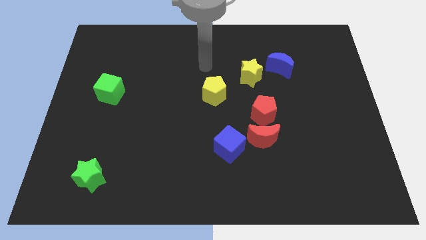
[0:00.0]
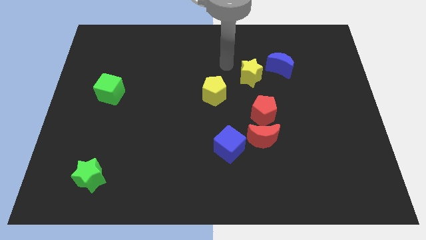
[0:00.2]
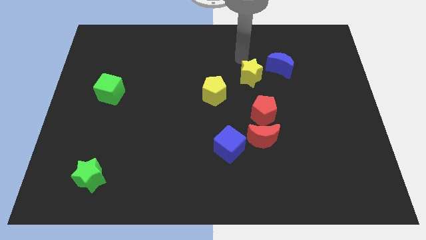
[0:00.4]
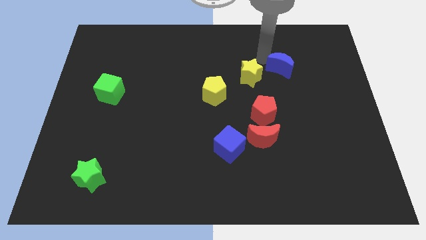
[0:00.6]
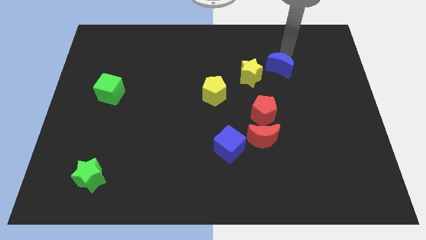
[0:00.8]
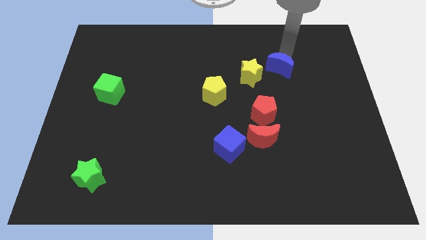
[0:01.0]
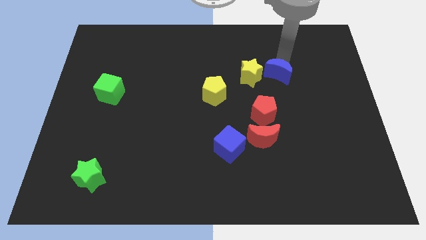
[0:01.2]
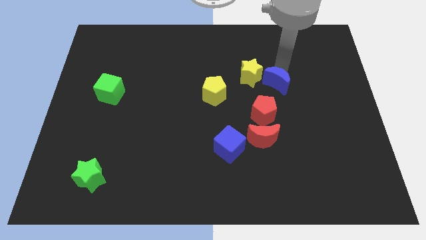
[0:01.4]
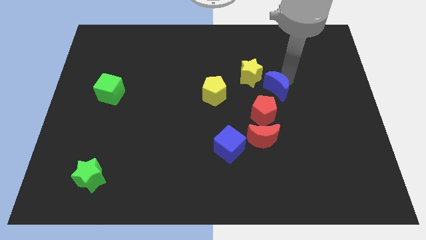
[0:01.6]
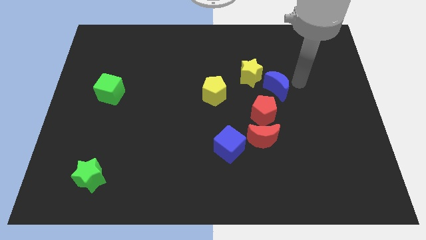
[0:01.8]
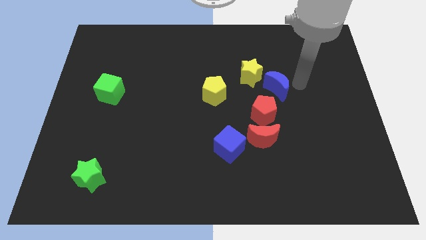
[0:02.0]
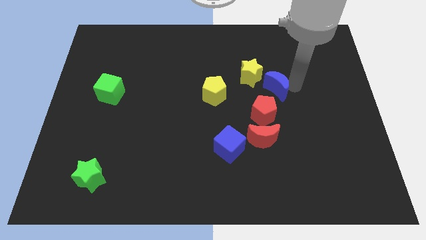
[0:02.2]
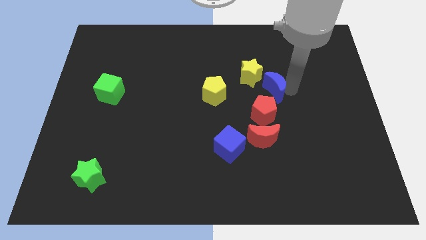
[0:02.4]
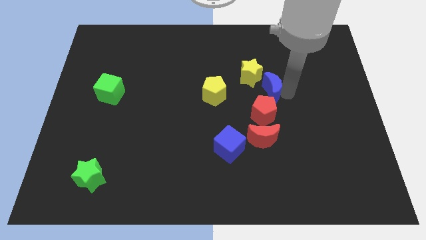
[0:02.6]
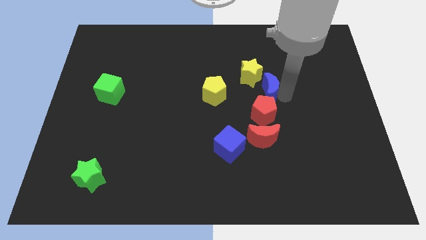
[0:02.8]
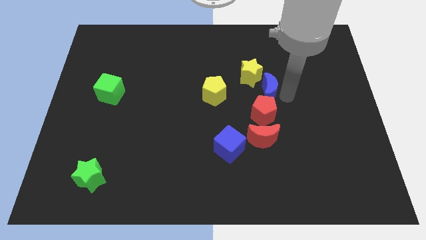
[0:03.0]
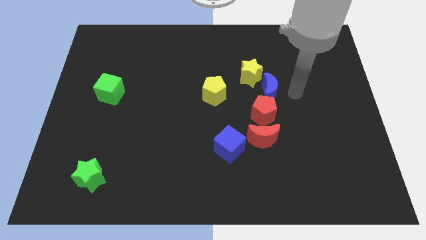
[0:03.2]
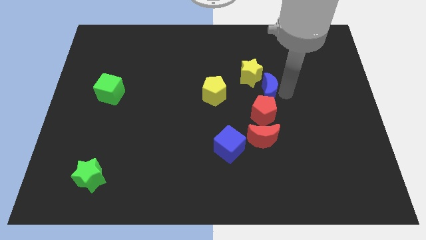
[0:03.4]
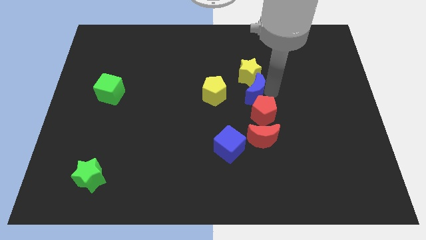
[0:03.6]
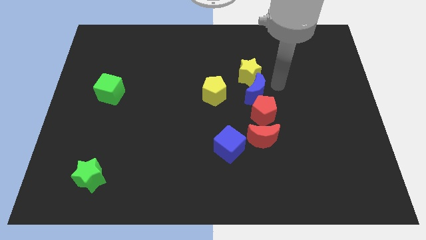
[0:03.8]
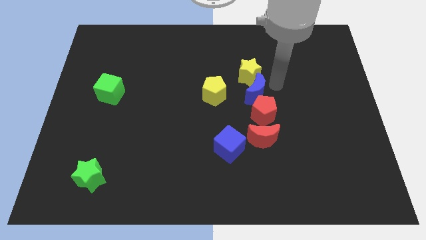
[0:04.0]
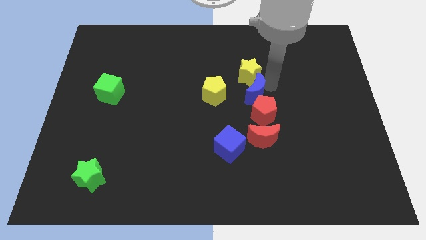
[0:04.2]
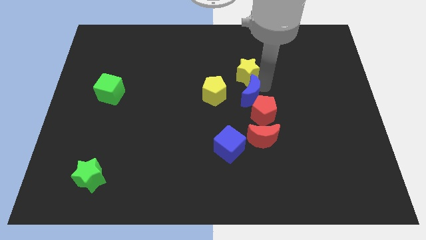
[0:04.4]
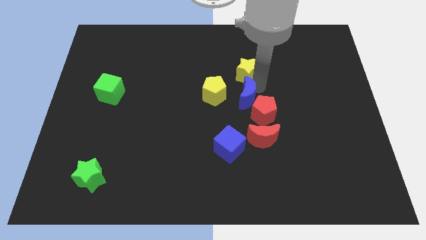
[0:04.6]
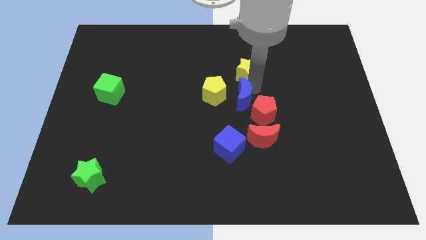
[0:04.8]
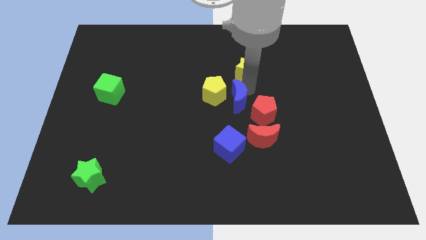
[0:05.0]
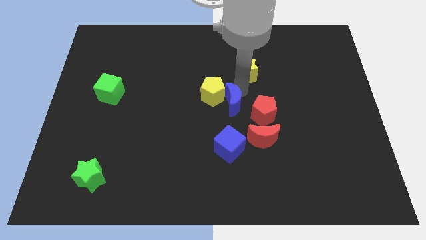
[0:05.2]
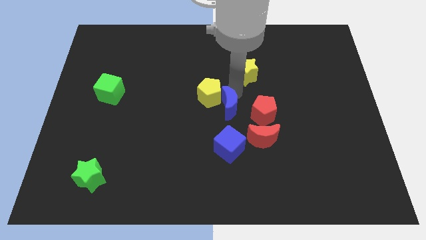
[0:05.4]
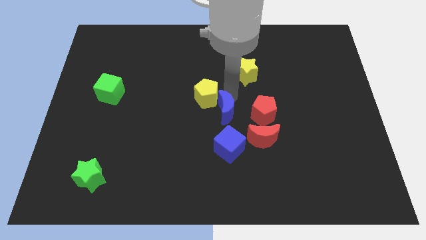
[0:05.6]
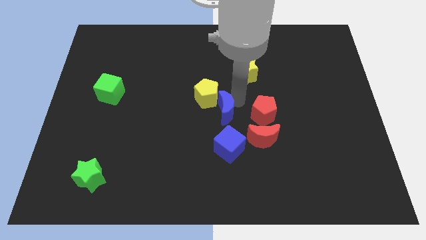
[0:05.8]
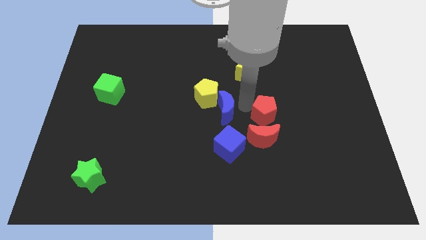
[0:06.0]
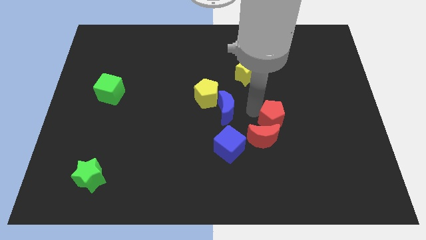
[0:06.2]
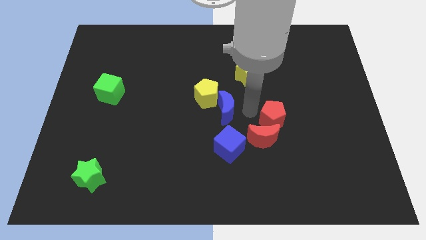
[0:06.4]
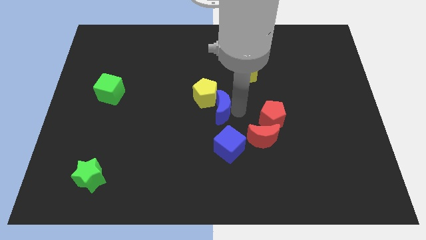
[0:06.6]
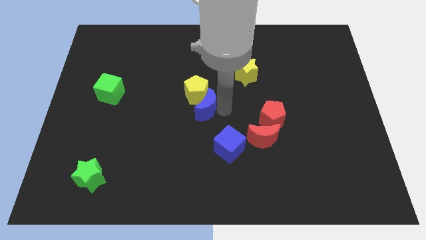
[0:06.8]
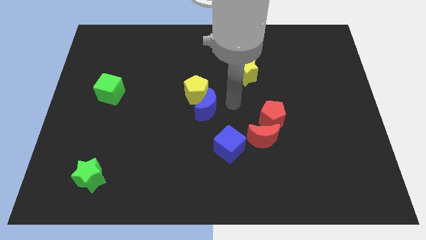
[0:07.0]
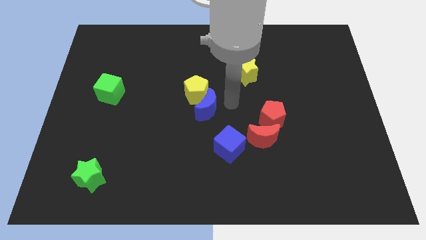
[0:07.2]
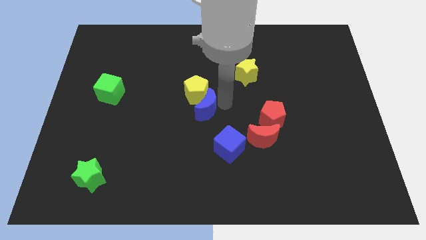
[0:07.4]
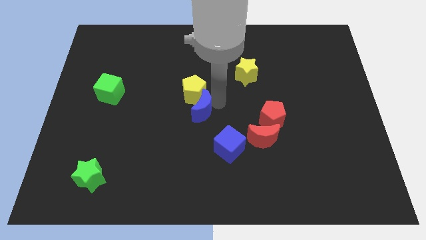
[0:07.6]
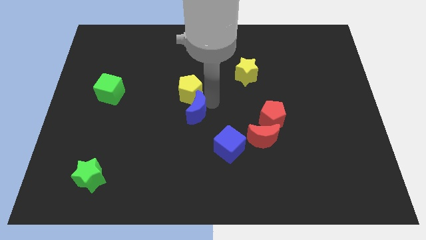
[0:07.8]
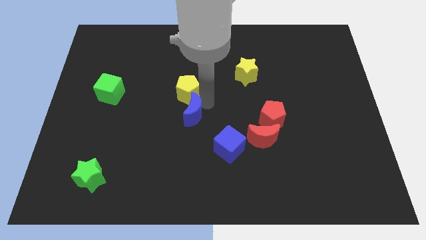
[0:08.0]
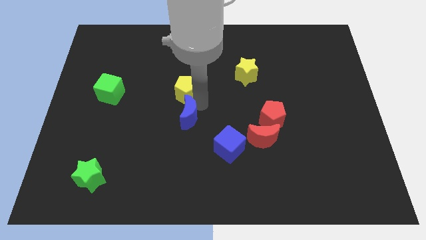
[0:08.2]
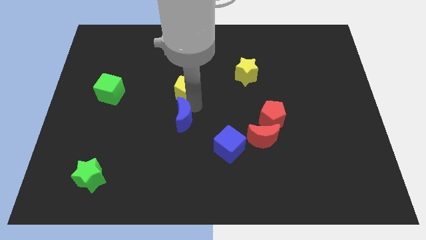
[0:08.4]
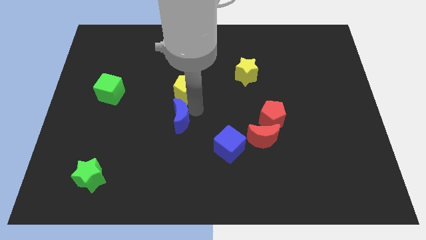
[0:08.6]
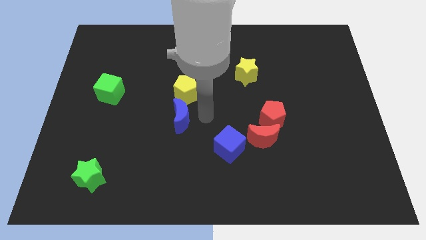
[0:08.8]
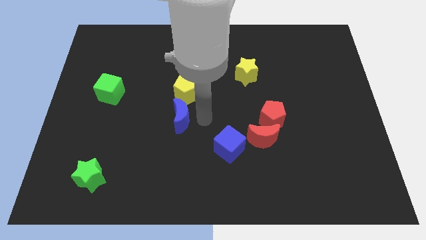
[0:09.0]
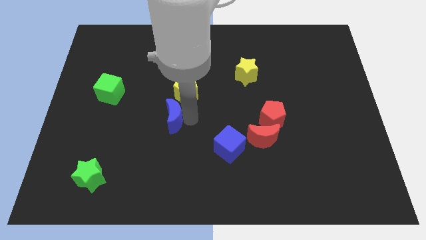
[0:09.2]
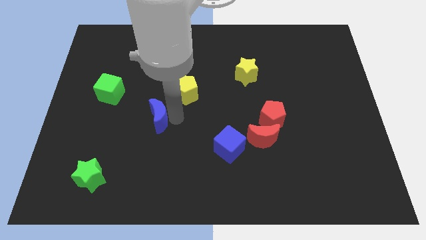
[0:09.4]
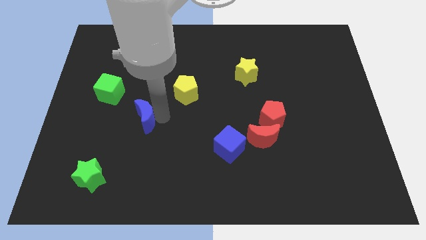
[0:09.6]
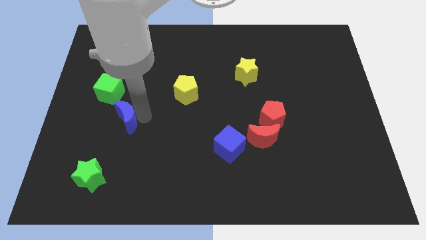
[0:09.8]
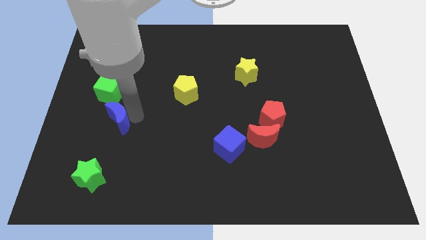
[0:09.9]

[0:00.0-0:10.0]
move the blue moon to the top of the green star

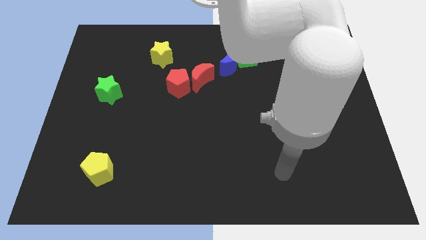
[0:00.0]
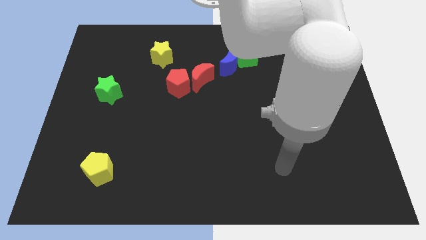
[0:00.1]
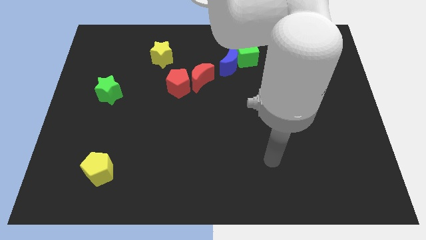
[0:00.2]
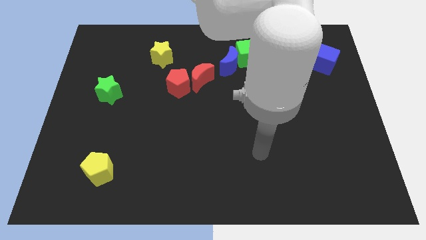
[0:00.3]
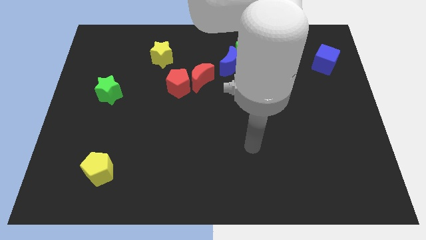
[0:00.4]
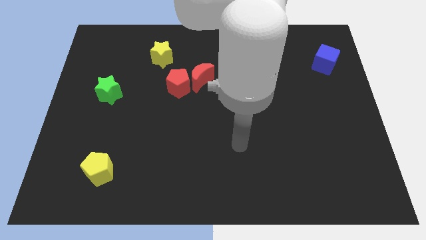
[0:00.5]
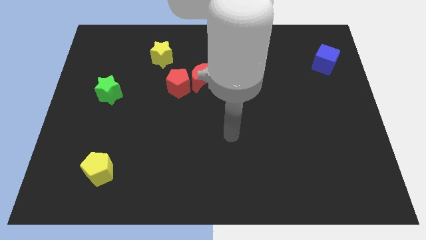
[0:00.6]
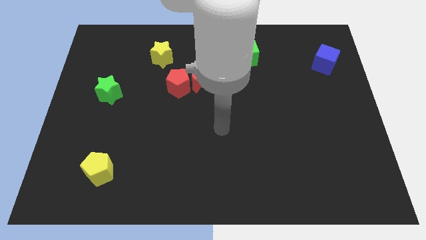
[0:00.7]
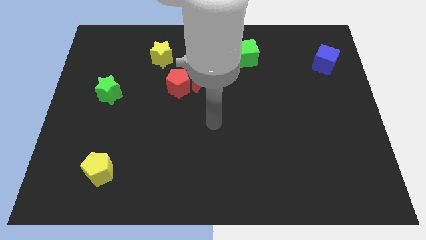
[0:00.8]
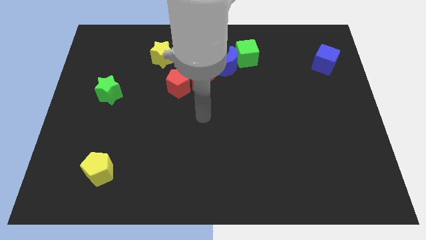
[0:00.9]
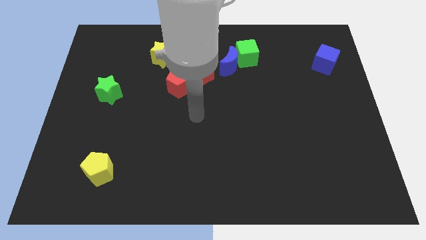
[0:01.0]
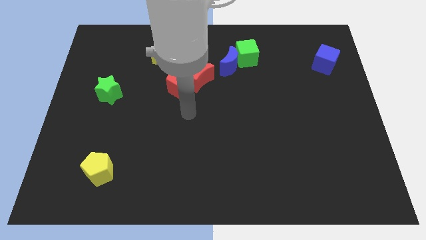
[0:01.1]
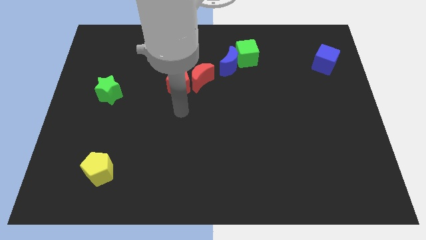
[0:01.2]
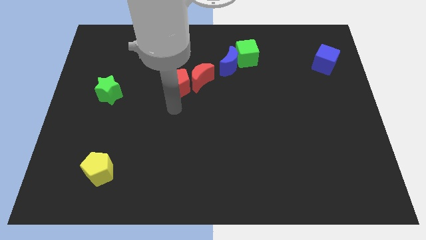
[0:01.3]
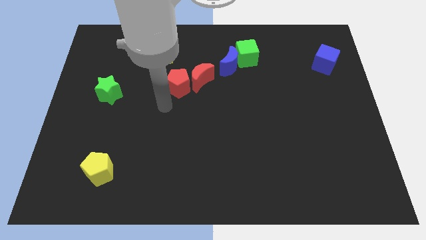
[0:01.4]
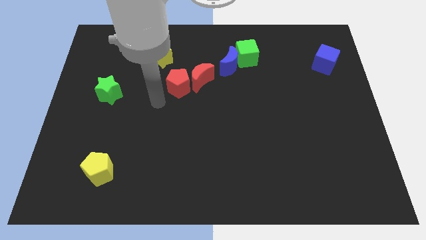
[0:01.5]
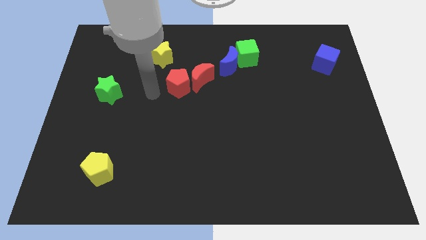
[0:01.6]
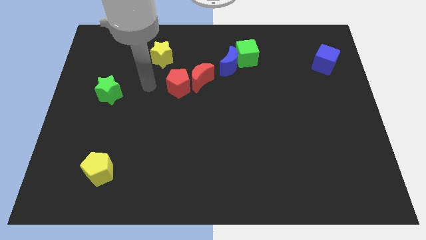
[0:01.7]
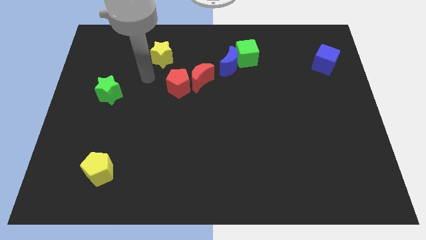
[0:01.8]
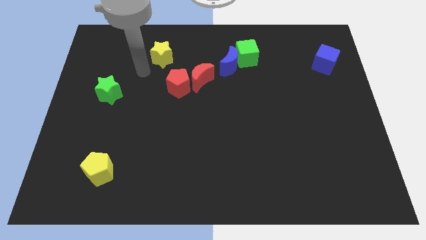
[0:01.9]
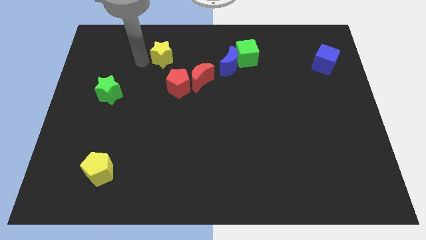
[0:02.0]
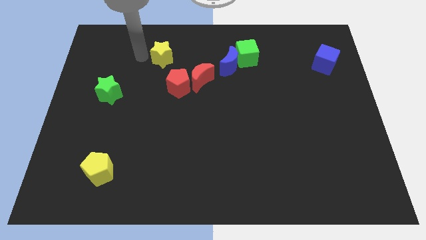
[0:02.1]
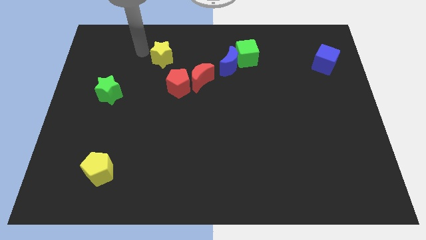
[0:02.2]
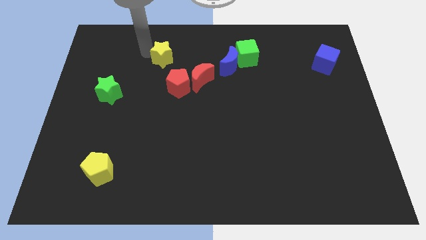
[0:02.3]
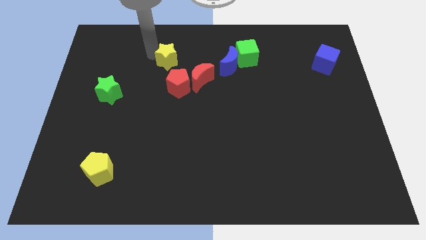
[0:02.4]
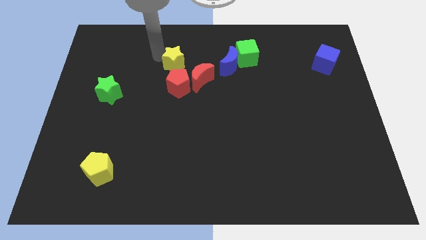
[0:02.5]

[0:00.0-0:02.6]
push the yellow star left of the blue moon
